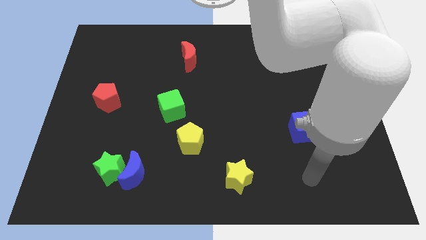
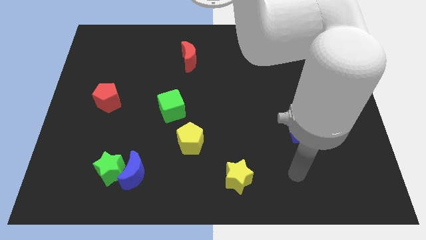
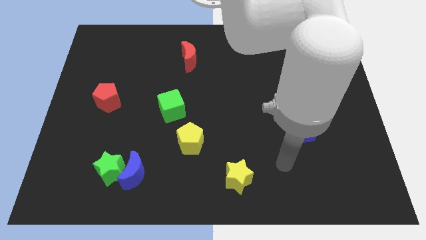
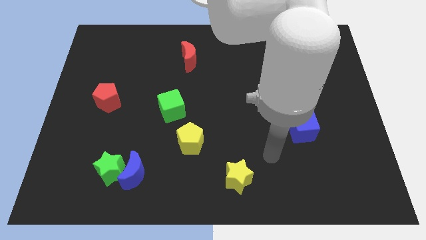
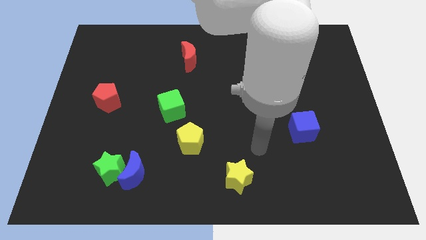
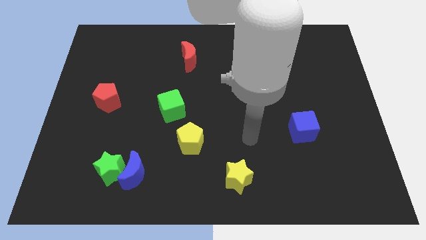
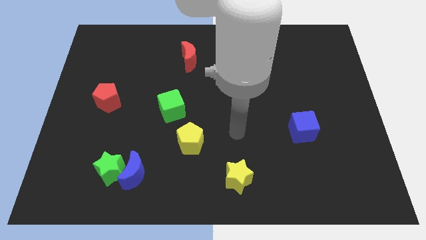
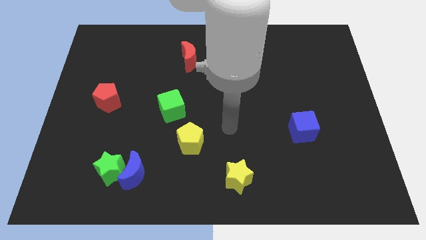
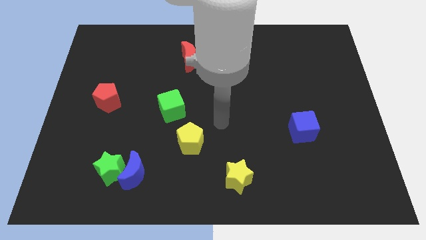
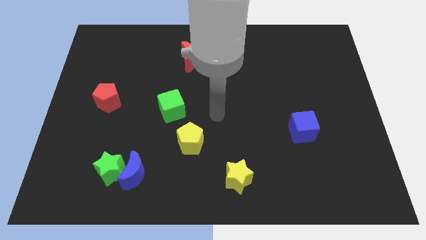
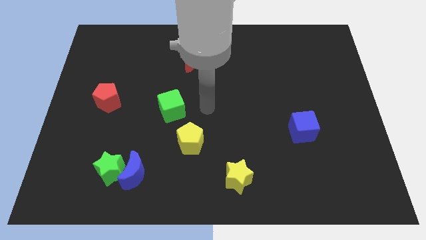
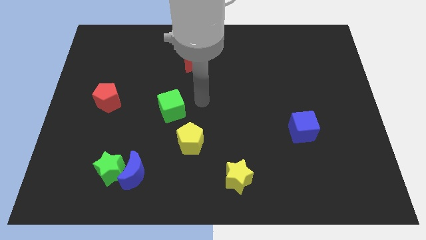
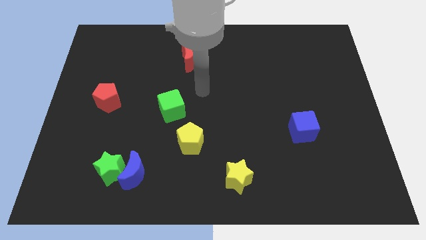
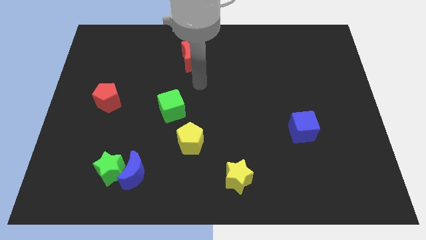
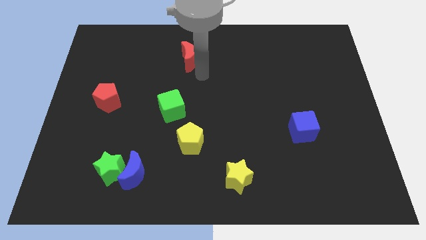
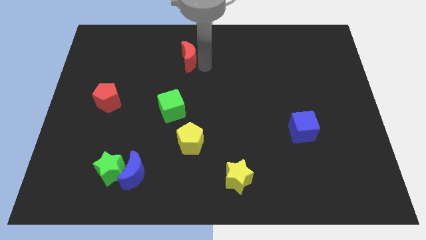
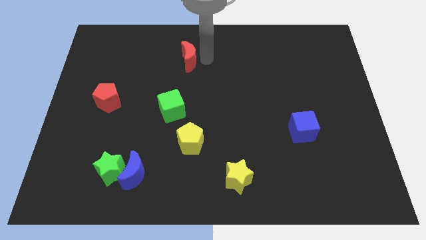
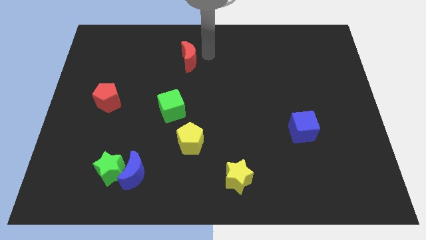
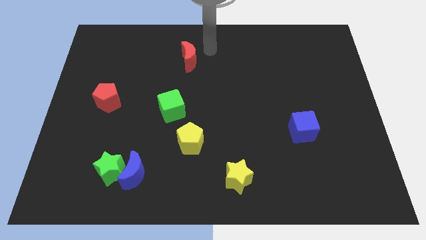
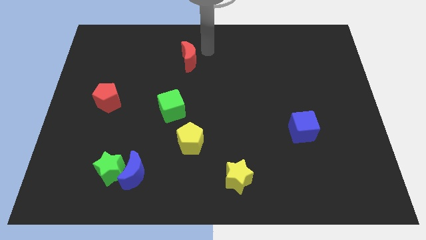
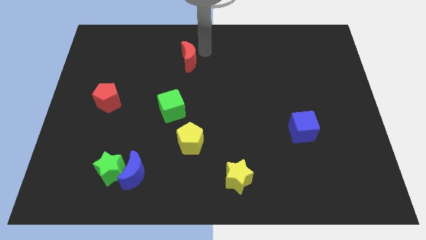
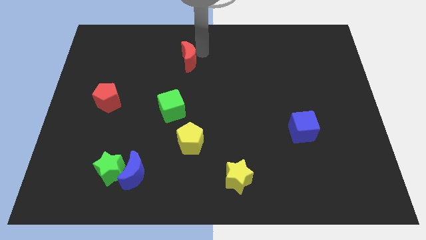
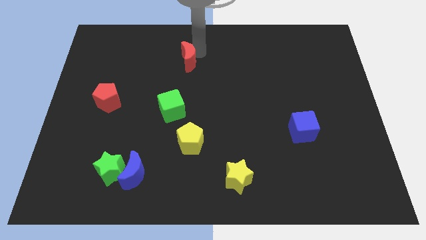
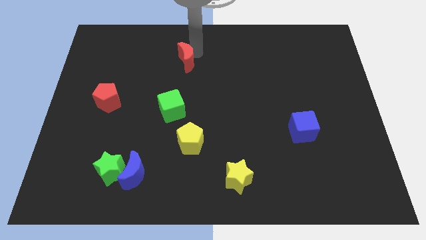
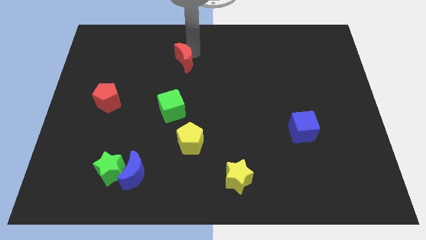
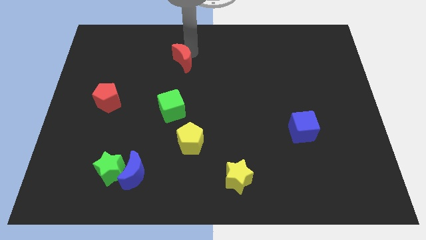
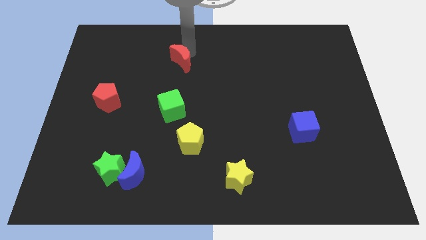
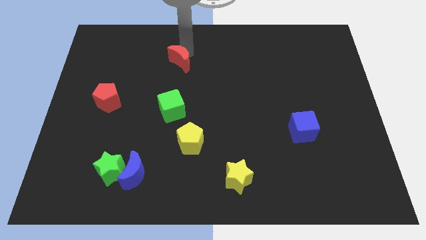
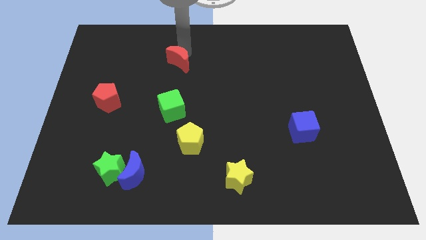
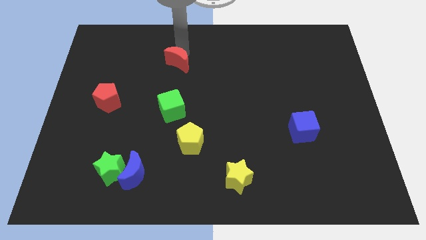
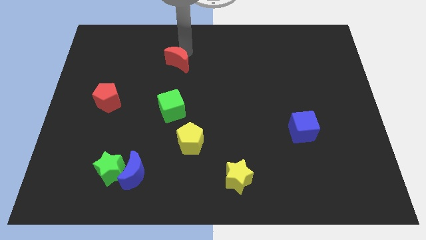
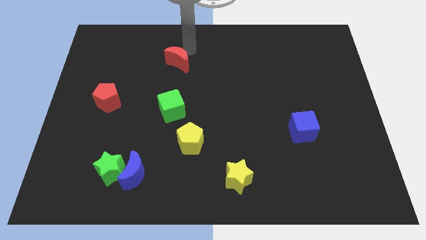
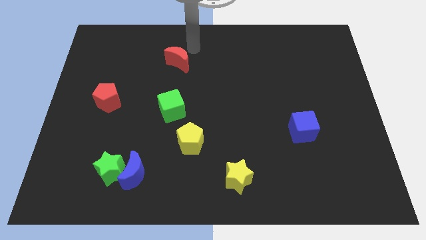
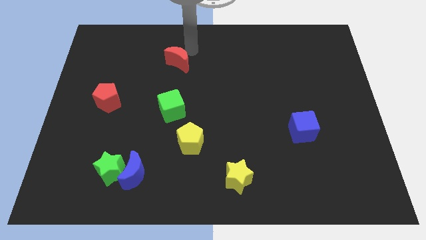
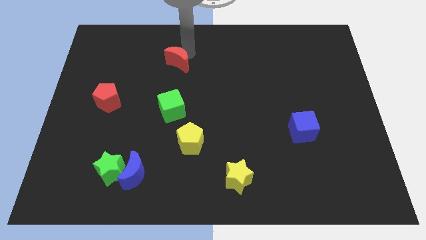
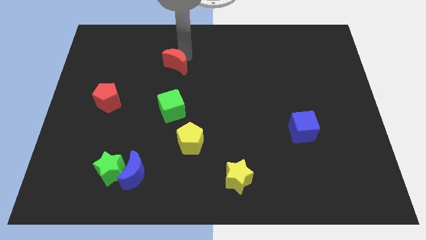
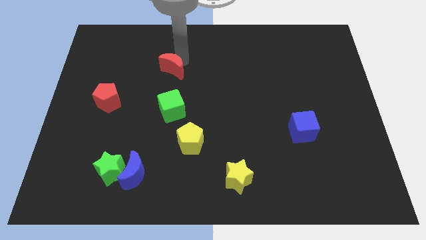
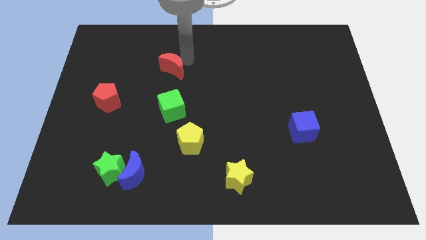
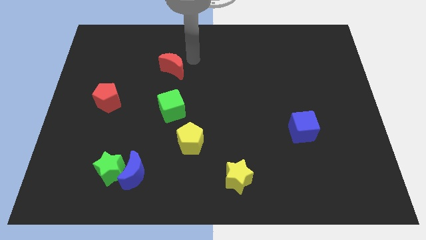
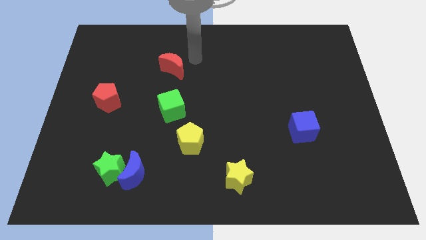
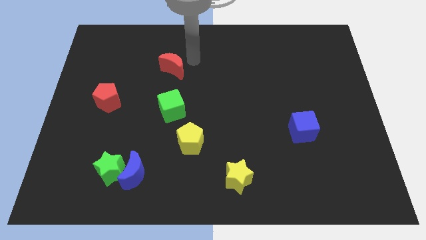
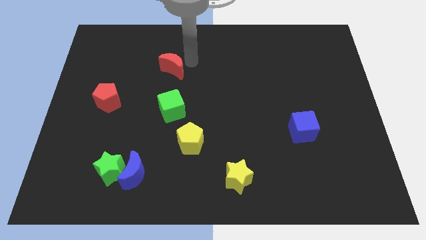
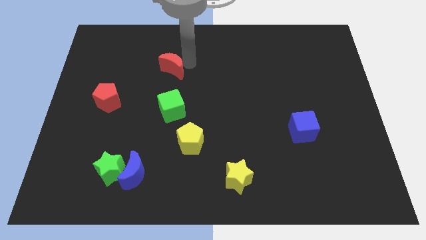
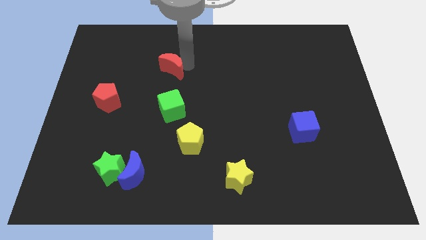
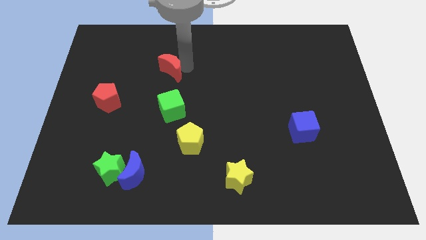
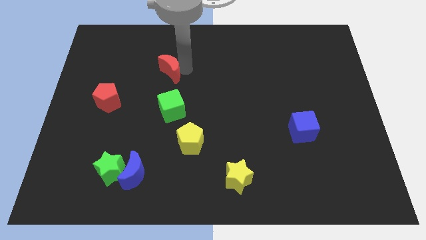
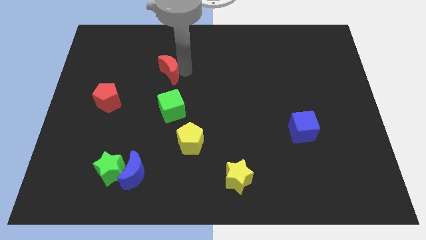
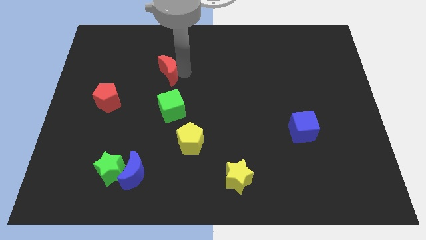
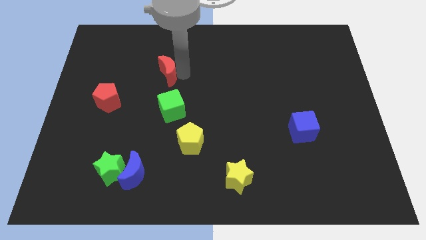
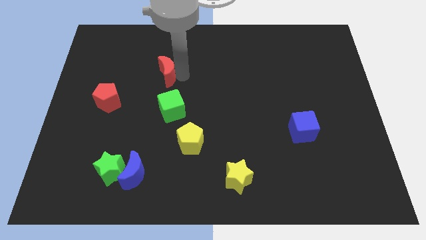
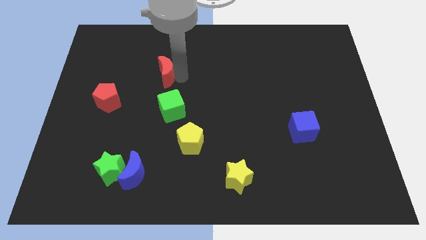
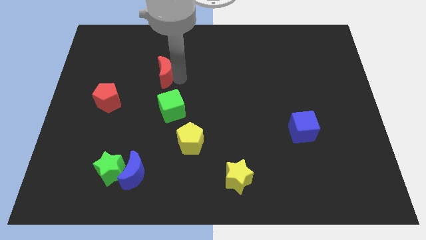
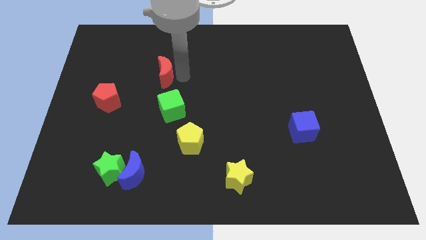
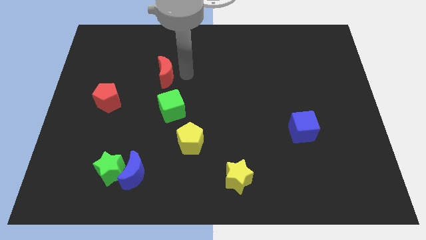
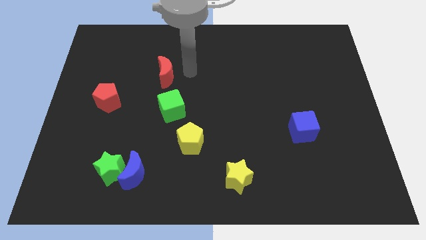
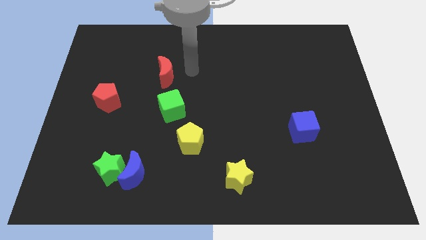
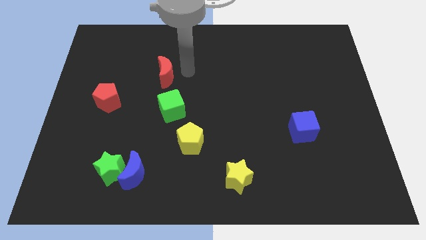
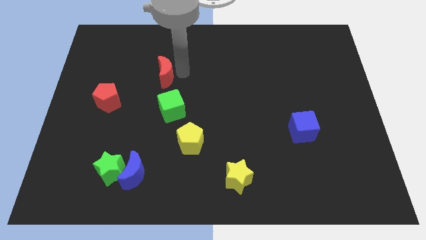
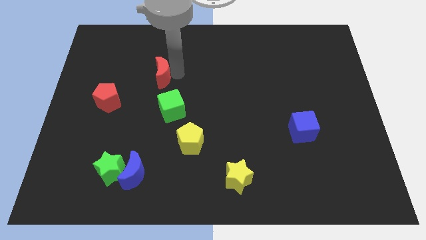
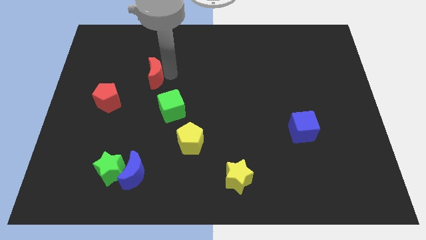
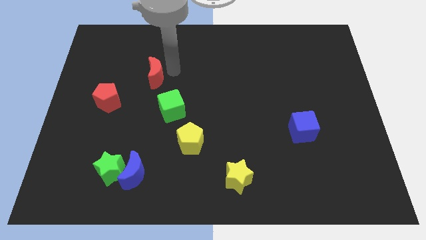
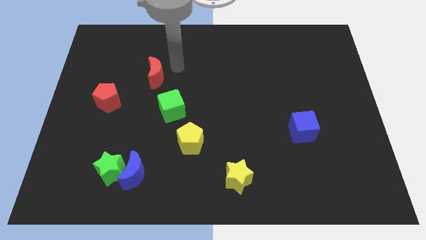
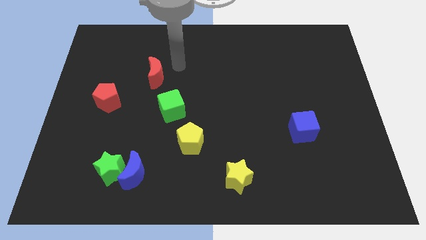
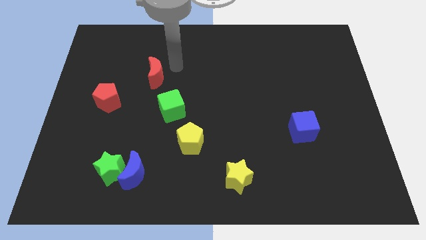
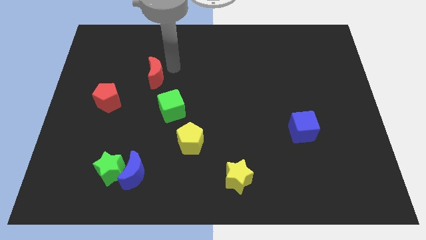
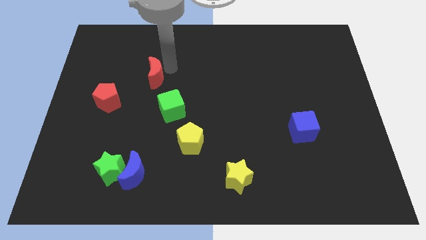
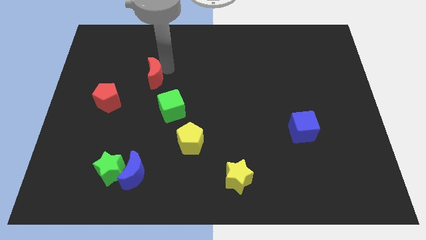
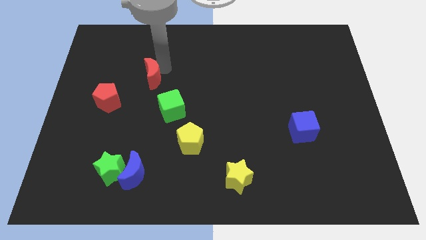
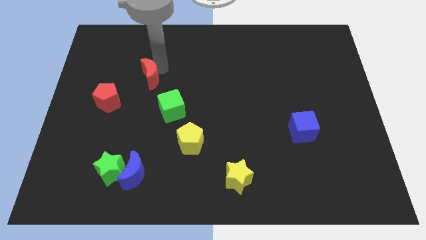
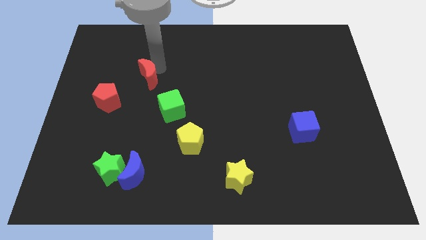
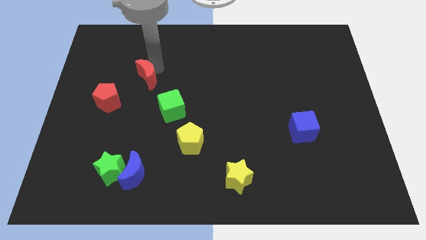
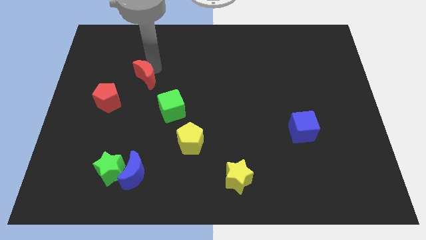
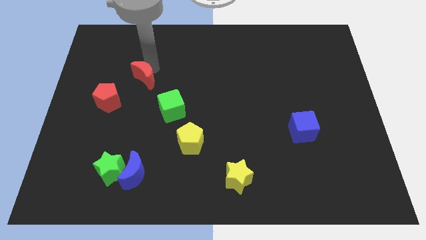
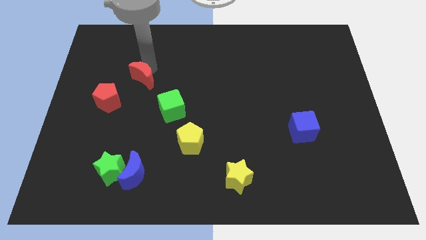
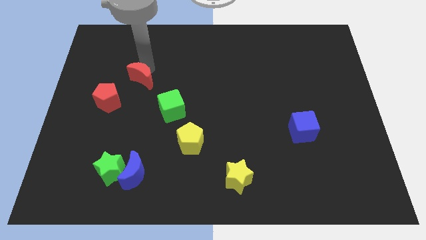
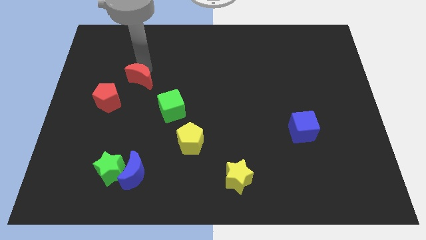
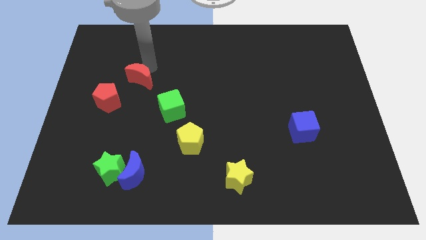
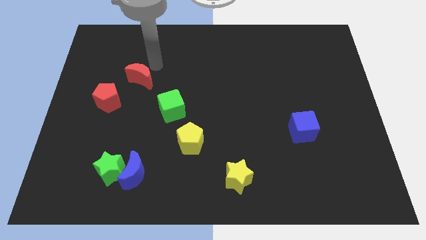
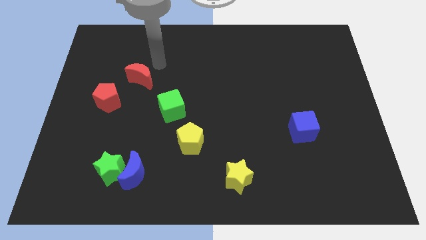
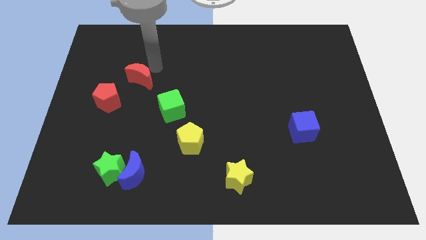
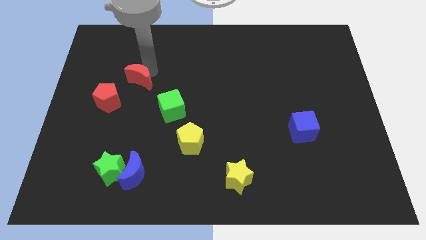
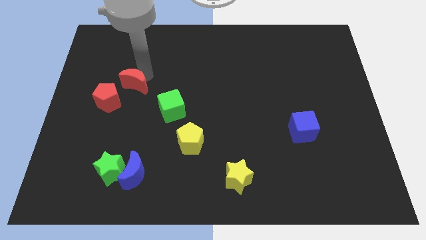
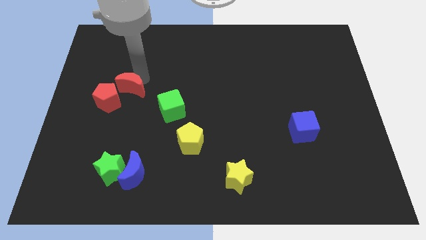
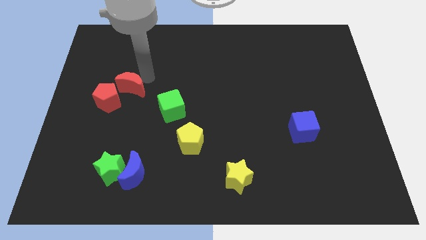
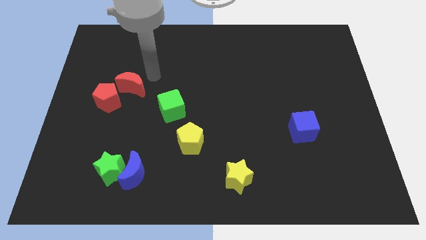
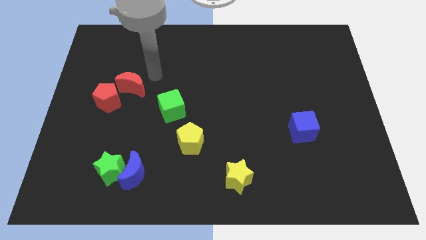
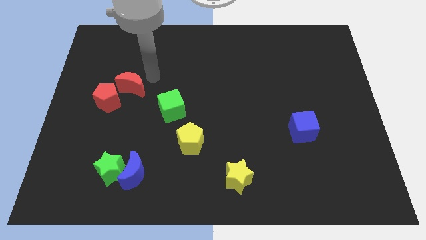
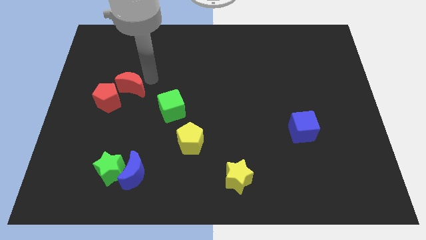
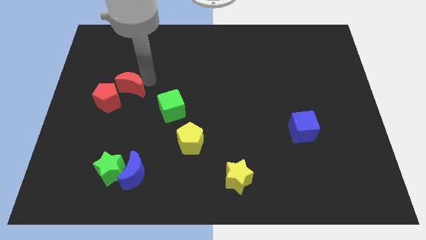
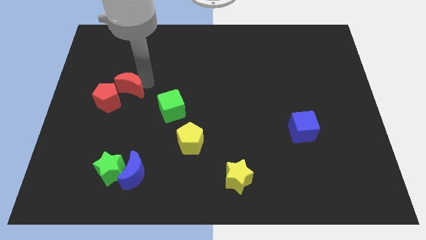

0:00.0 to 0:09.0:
slide the red moon next to the red pentagon
